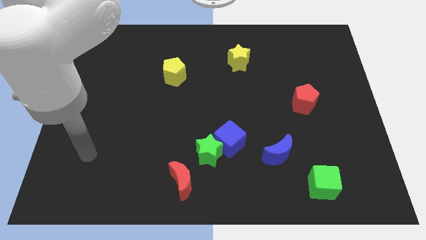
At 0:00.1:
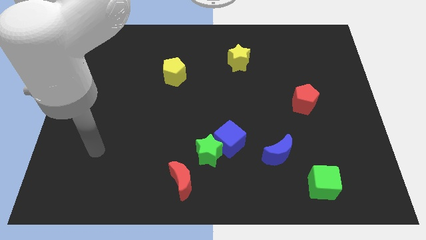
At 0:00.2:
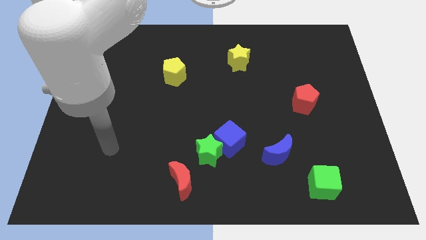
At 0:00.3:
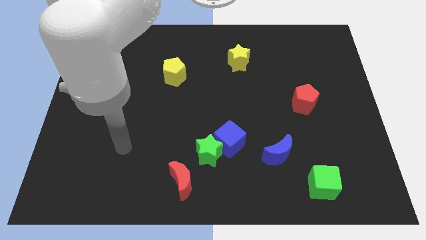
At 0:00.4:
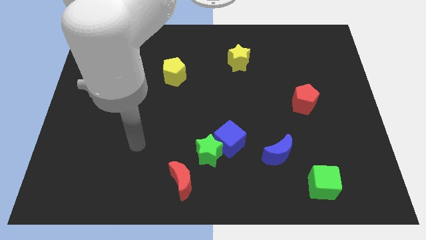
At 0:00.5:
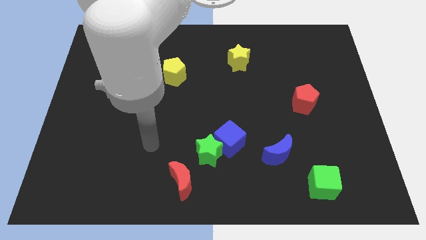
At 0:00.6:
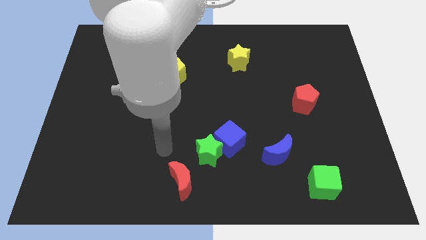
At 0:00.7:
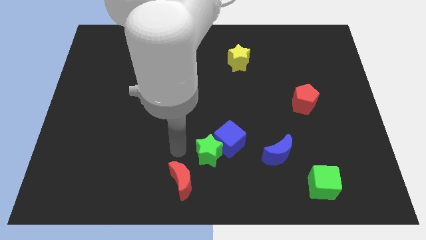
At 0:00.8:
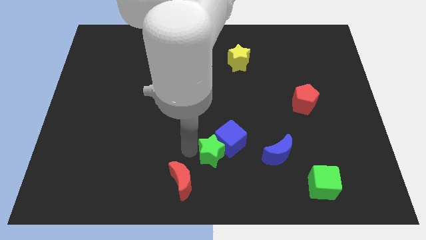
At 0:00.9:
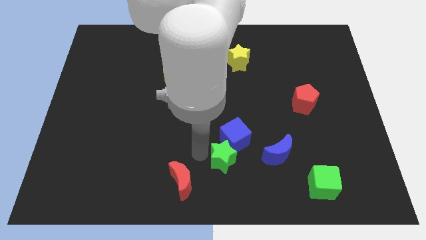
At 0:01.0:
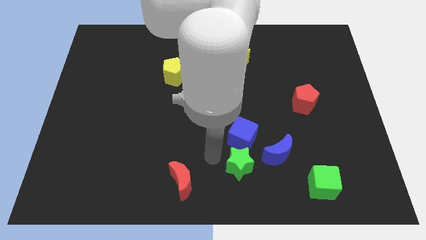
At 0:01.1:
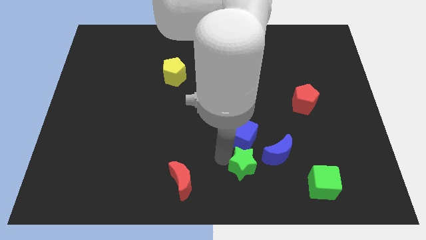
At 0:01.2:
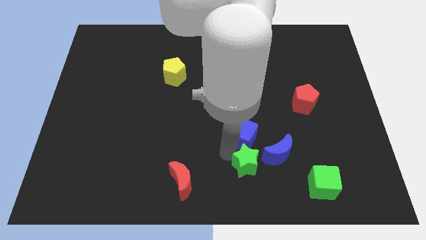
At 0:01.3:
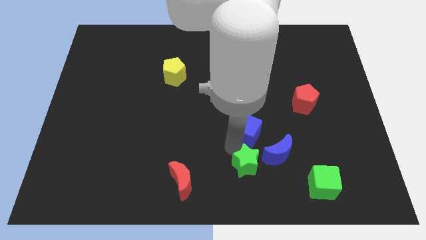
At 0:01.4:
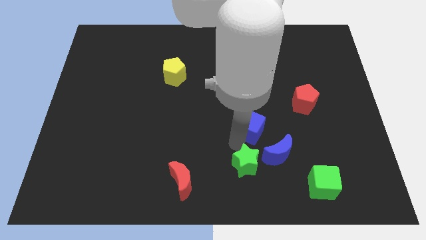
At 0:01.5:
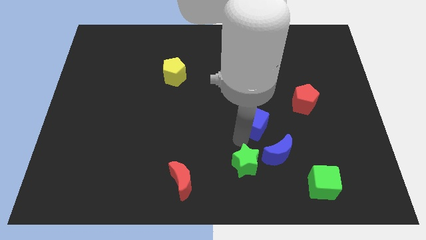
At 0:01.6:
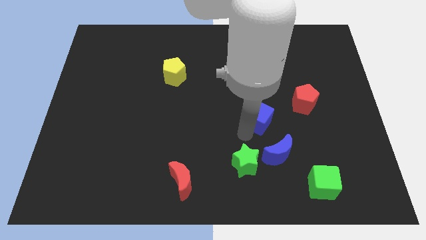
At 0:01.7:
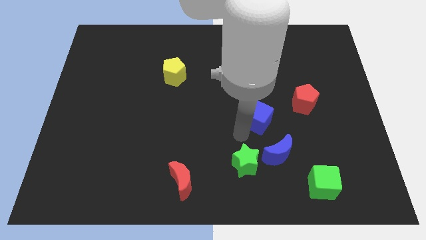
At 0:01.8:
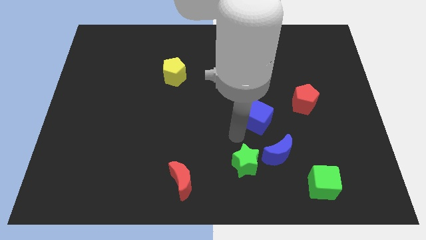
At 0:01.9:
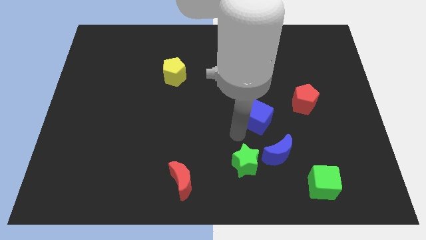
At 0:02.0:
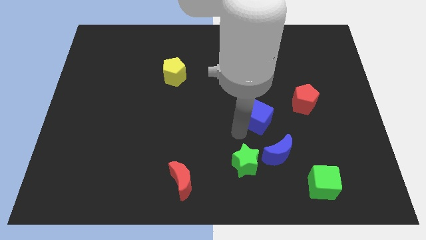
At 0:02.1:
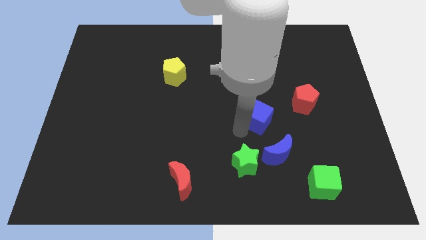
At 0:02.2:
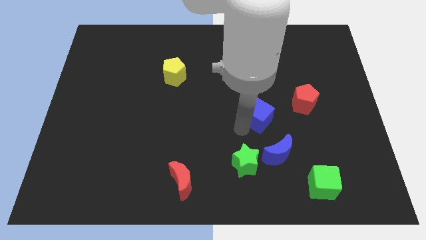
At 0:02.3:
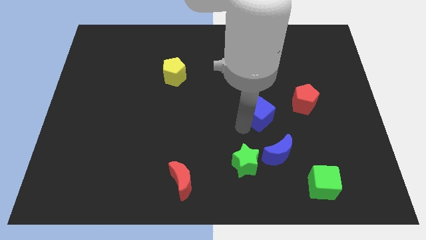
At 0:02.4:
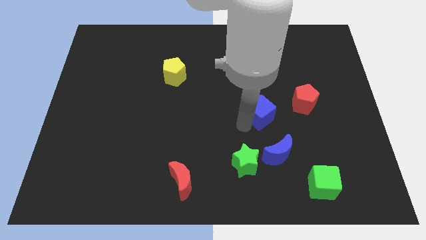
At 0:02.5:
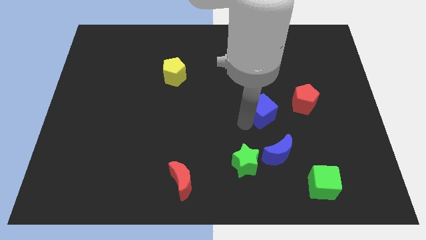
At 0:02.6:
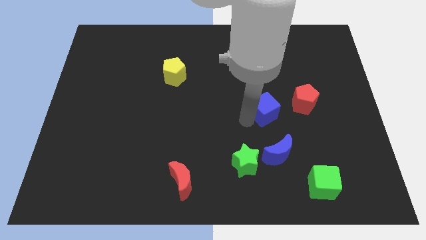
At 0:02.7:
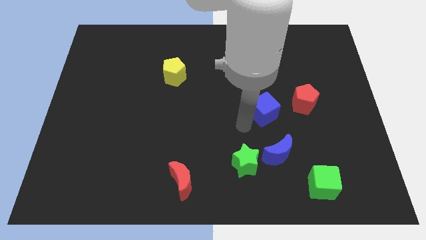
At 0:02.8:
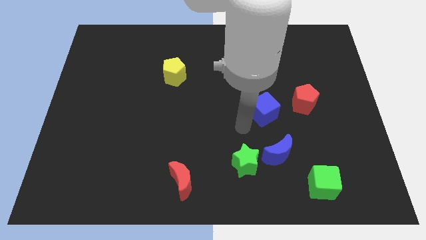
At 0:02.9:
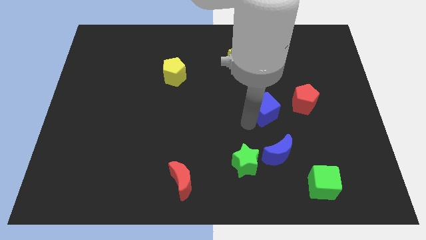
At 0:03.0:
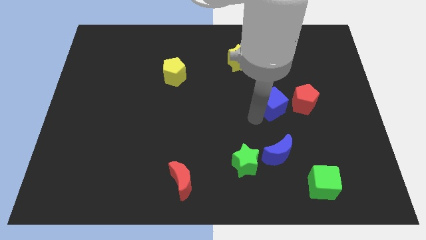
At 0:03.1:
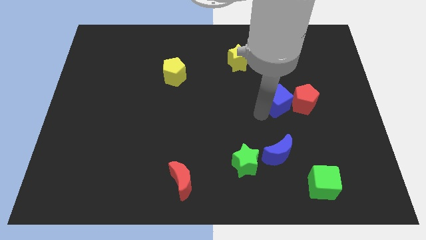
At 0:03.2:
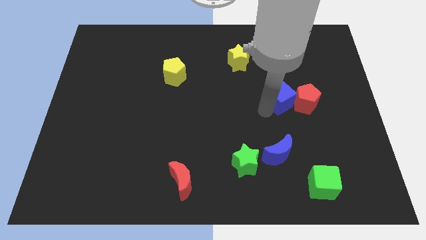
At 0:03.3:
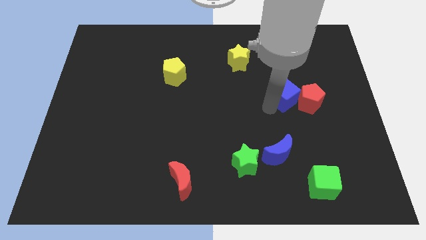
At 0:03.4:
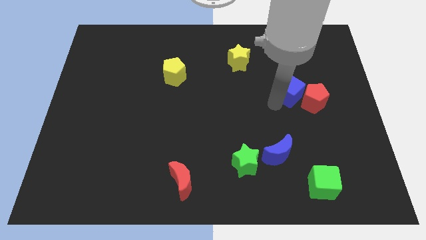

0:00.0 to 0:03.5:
push the blue cube upwards and right

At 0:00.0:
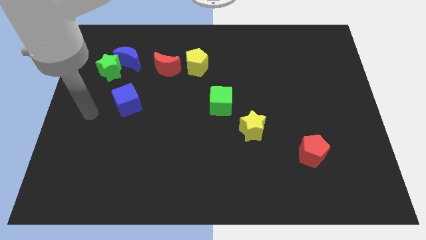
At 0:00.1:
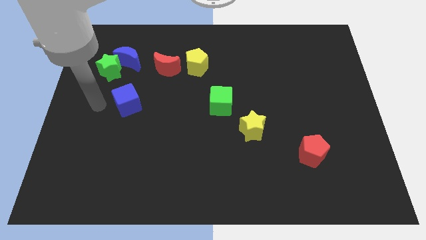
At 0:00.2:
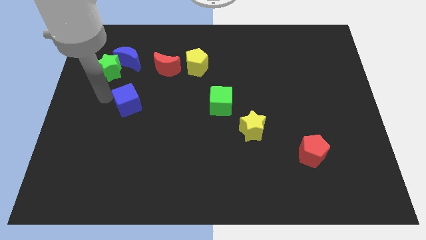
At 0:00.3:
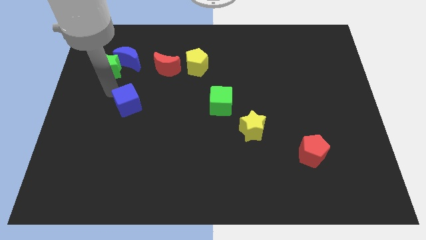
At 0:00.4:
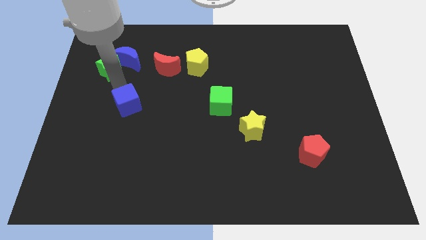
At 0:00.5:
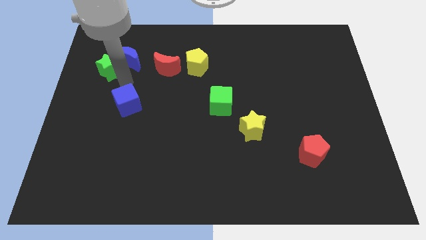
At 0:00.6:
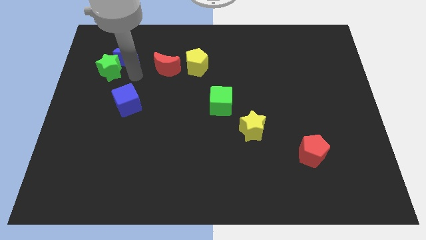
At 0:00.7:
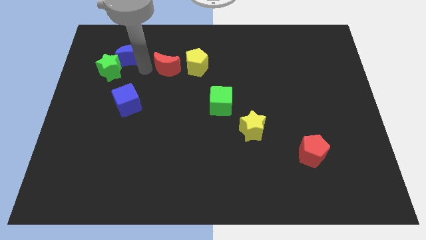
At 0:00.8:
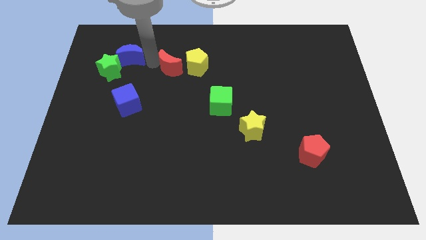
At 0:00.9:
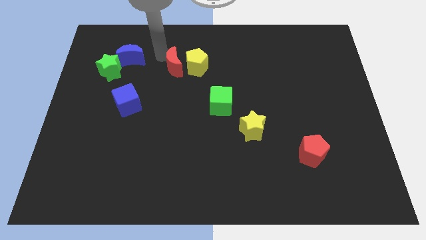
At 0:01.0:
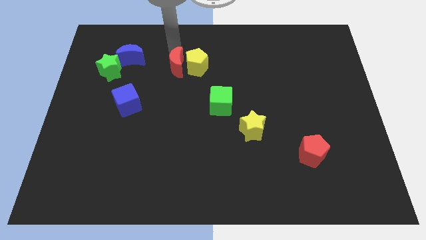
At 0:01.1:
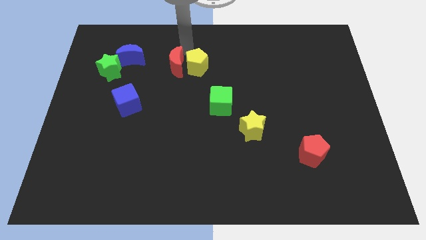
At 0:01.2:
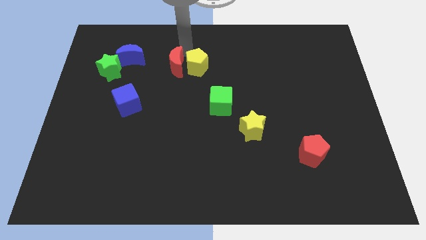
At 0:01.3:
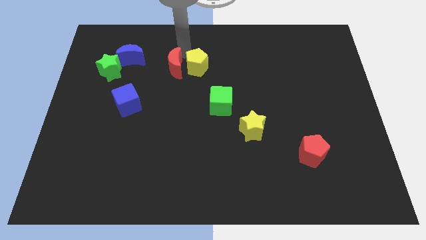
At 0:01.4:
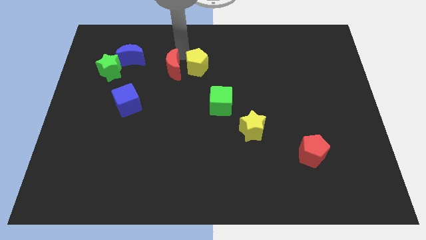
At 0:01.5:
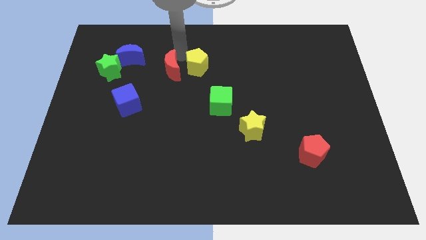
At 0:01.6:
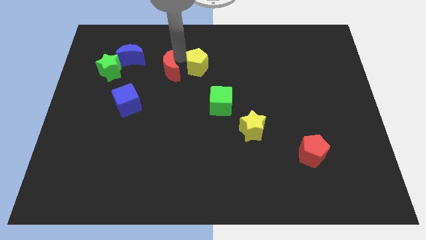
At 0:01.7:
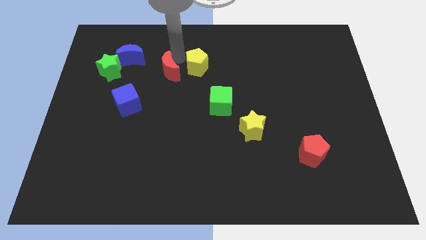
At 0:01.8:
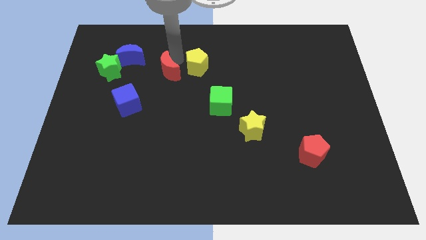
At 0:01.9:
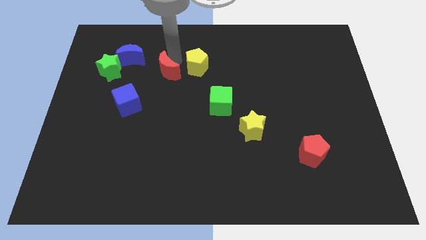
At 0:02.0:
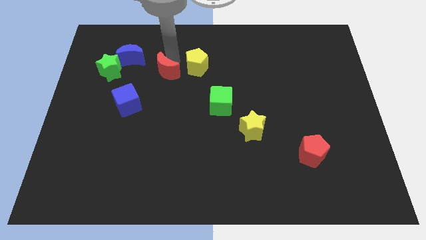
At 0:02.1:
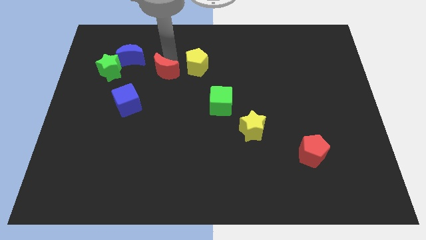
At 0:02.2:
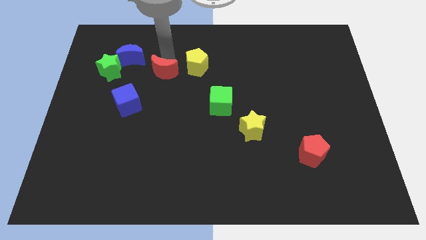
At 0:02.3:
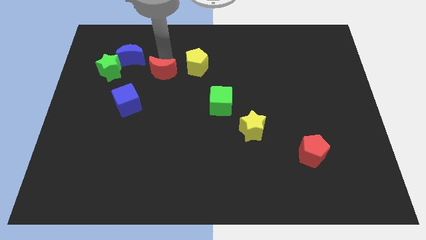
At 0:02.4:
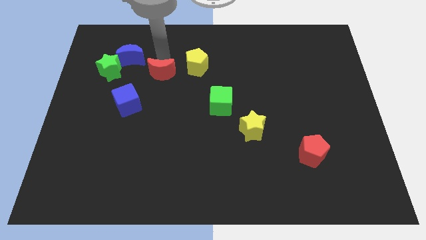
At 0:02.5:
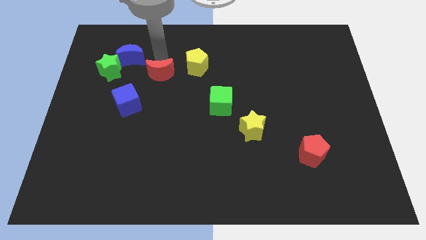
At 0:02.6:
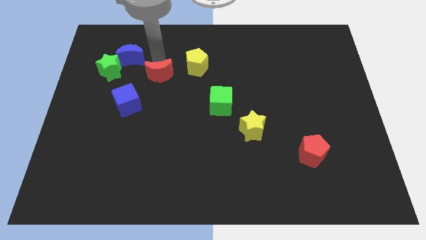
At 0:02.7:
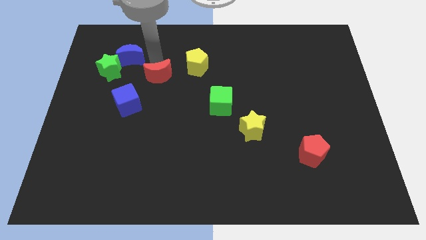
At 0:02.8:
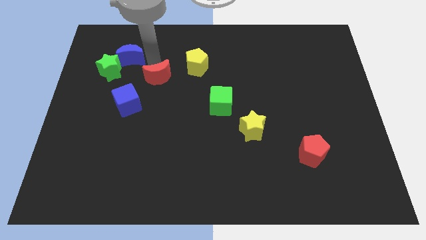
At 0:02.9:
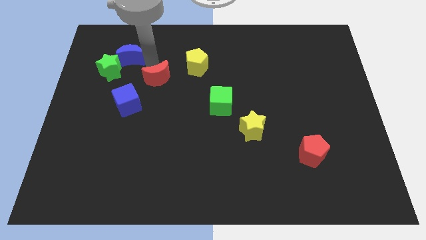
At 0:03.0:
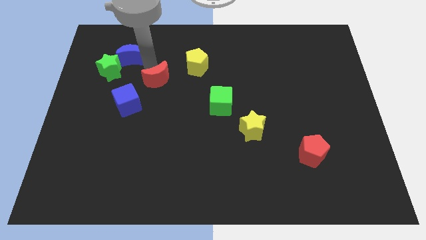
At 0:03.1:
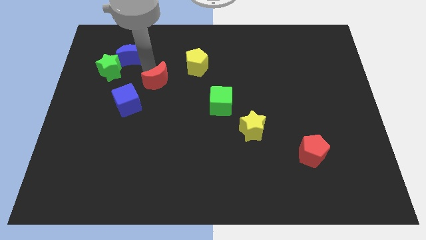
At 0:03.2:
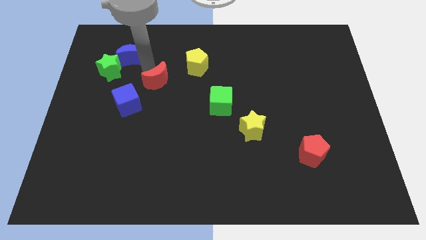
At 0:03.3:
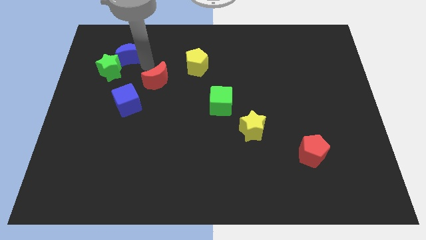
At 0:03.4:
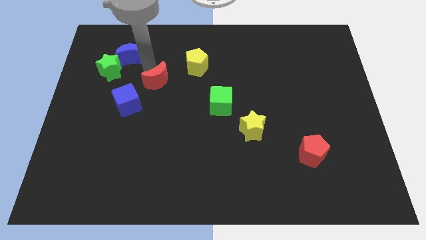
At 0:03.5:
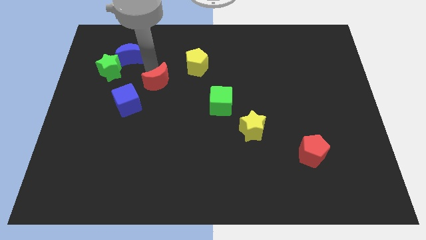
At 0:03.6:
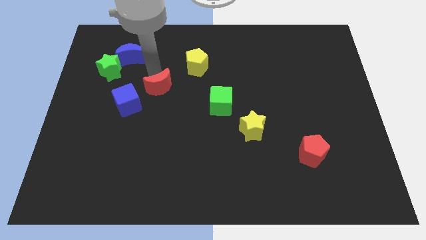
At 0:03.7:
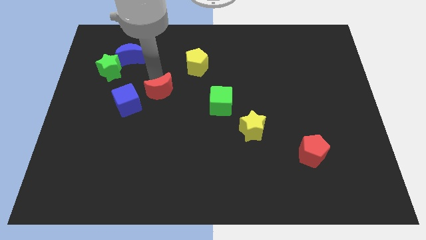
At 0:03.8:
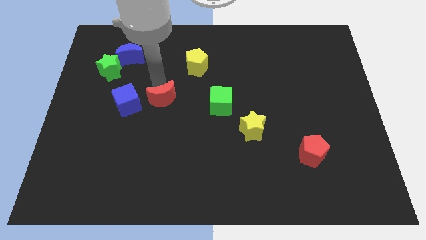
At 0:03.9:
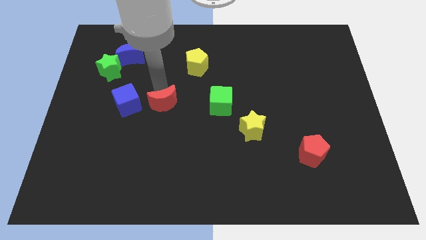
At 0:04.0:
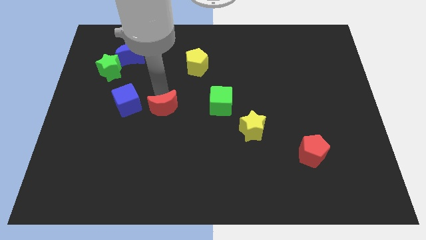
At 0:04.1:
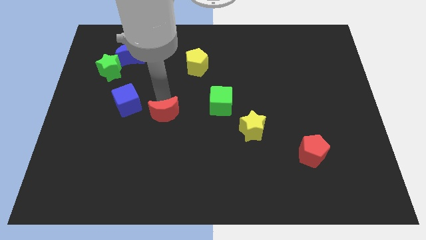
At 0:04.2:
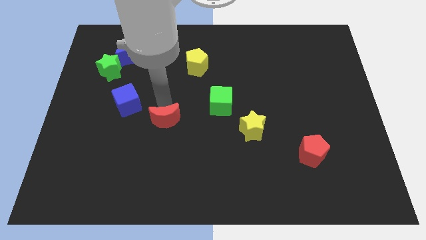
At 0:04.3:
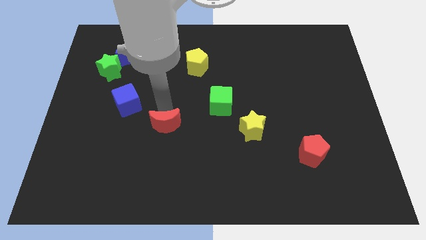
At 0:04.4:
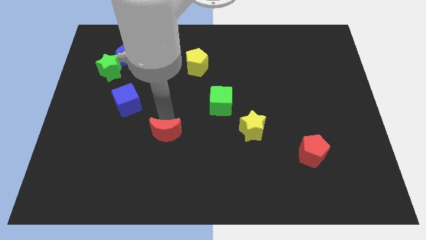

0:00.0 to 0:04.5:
slide the red moon downwards
